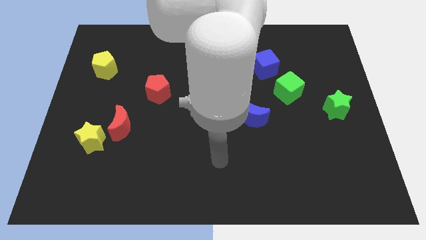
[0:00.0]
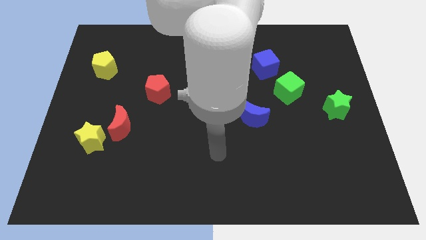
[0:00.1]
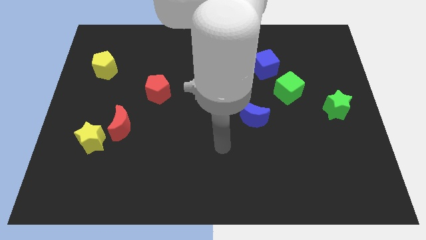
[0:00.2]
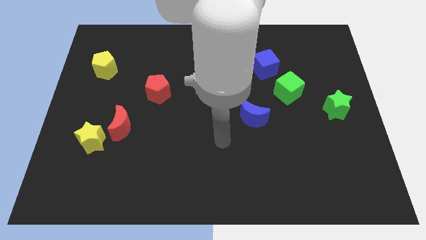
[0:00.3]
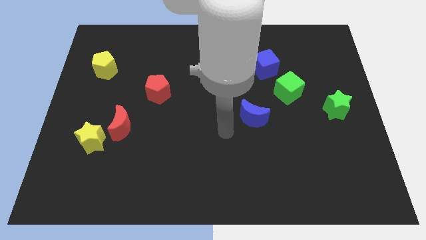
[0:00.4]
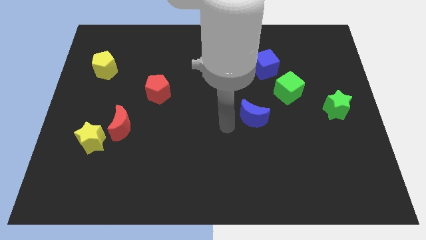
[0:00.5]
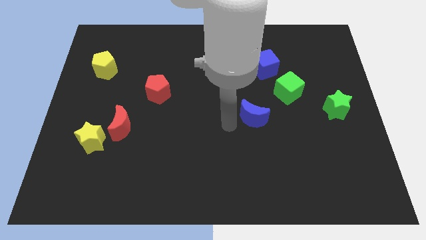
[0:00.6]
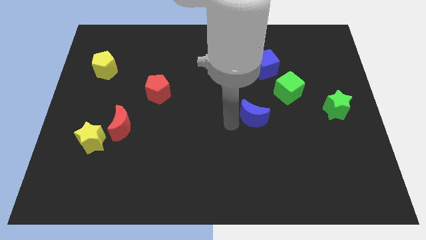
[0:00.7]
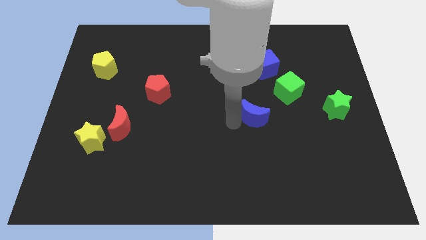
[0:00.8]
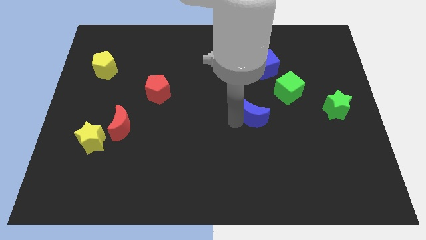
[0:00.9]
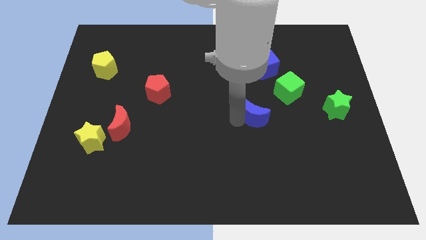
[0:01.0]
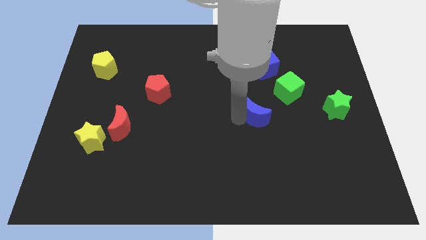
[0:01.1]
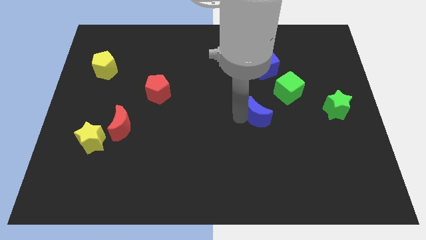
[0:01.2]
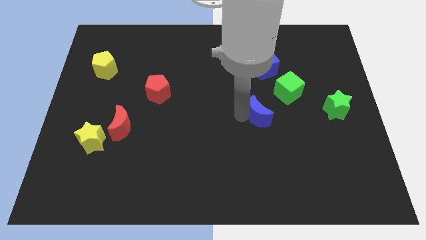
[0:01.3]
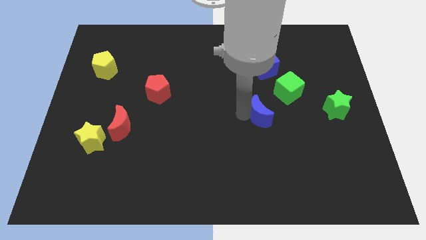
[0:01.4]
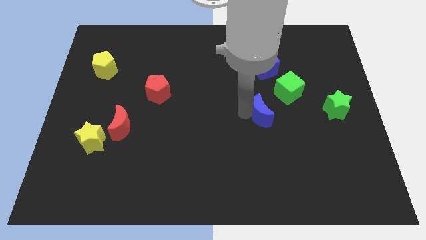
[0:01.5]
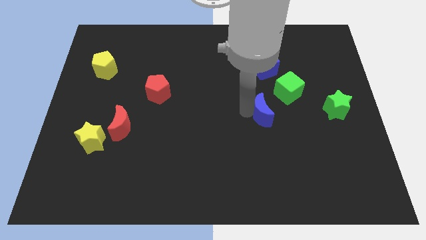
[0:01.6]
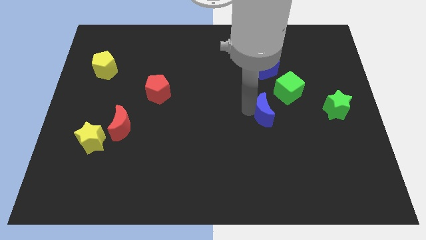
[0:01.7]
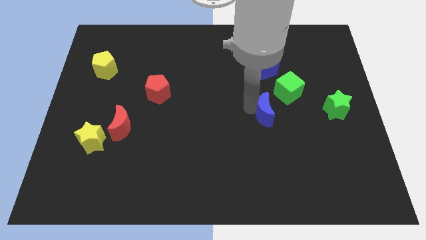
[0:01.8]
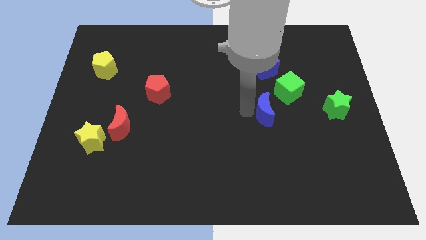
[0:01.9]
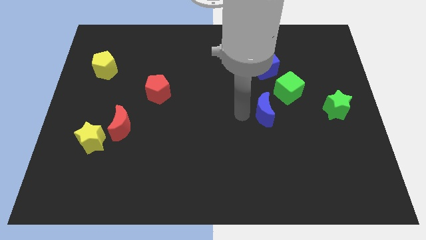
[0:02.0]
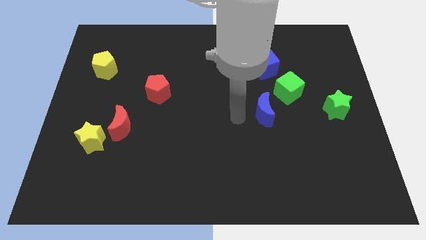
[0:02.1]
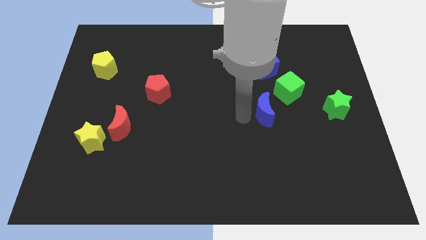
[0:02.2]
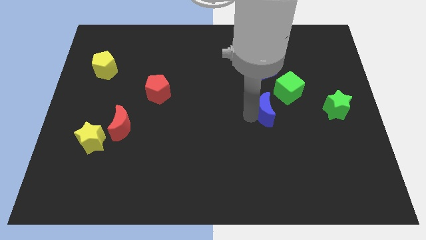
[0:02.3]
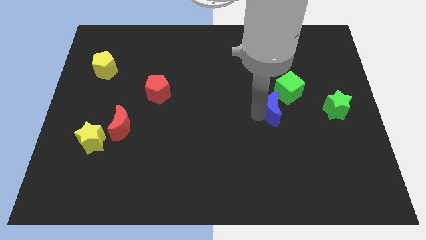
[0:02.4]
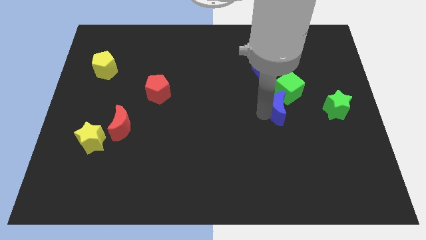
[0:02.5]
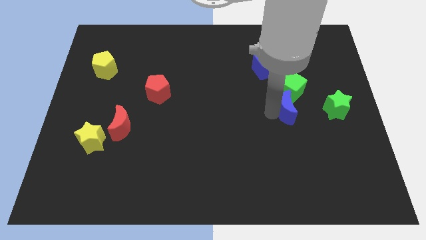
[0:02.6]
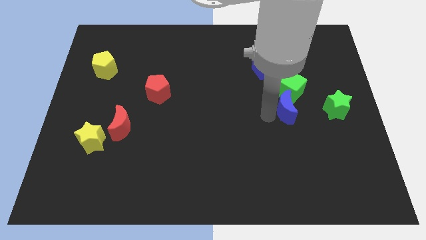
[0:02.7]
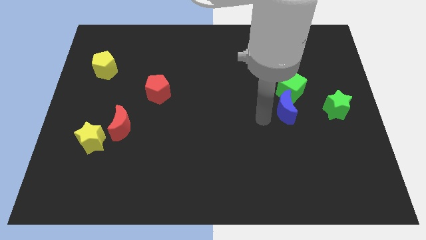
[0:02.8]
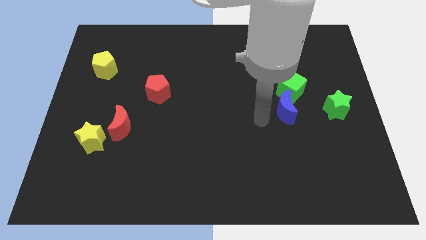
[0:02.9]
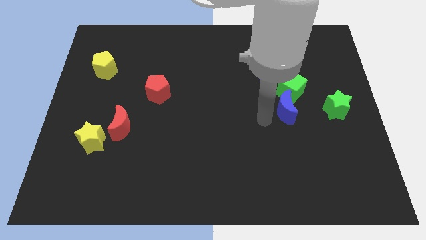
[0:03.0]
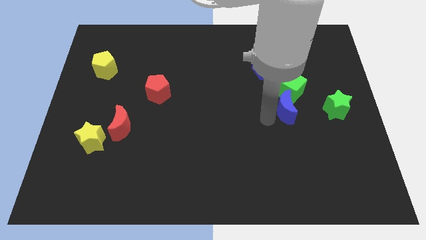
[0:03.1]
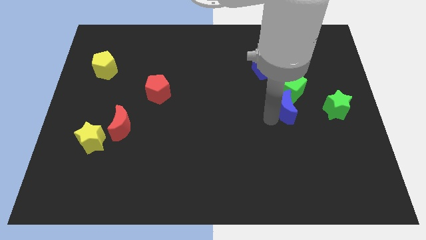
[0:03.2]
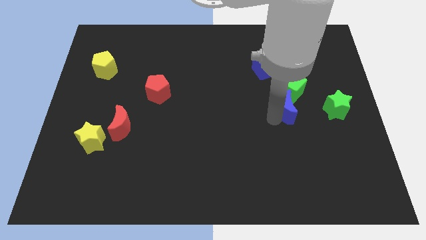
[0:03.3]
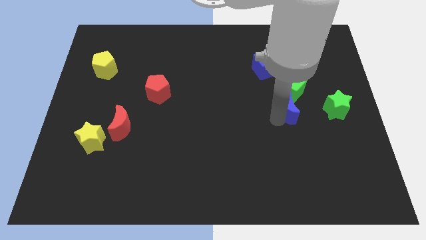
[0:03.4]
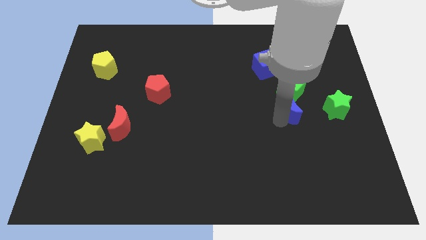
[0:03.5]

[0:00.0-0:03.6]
slightly slide the blue moon upwards and right

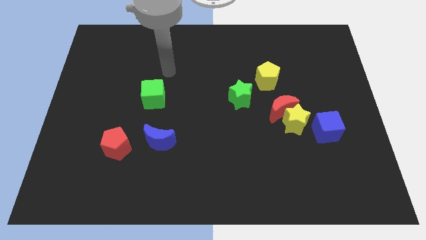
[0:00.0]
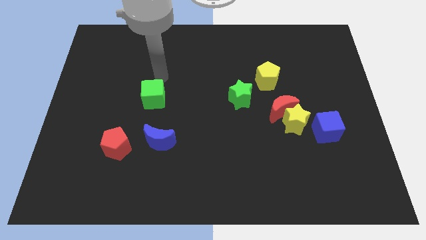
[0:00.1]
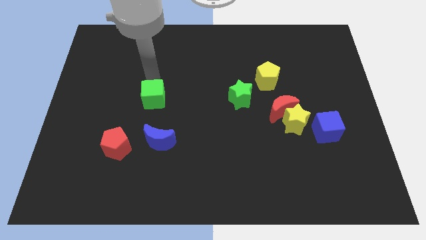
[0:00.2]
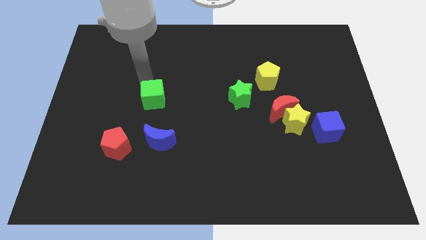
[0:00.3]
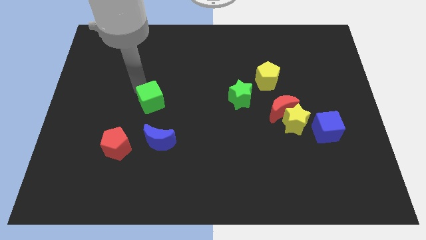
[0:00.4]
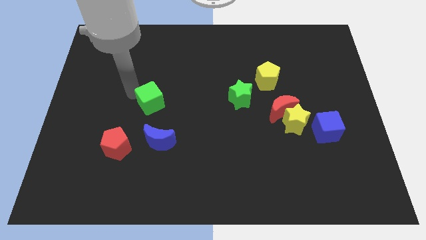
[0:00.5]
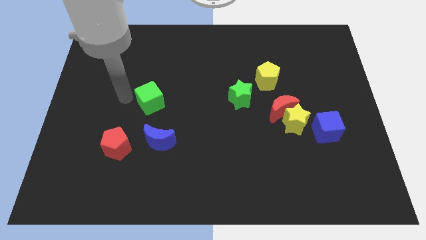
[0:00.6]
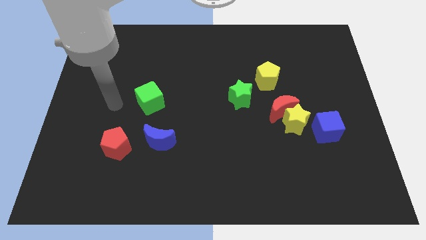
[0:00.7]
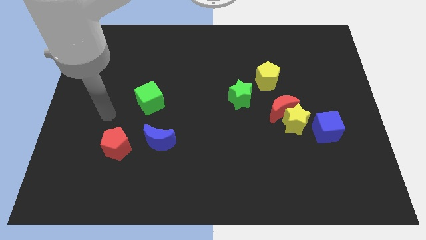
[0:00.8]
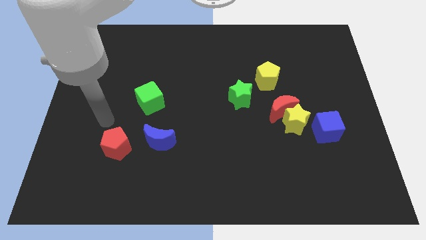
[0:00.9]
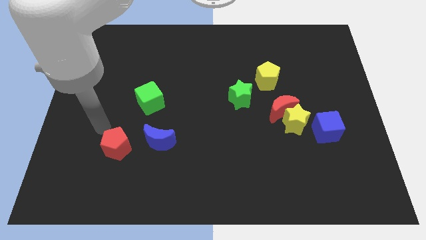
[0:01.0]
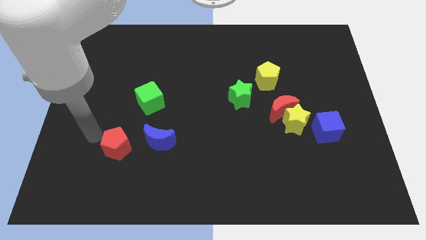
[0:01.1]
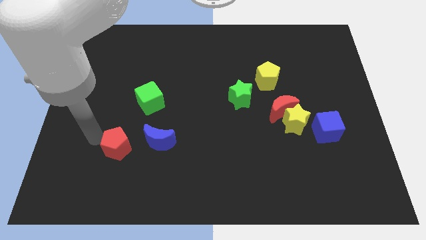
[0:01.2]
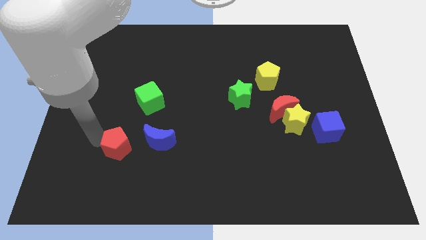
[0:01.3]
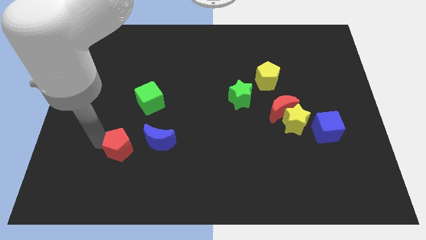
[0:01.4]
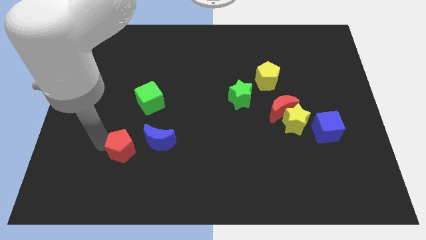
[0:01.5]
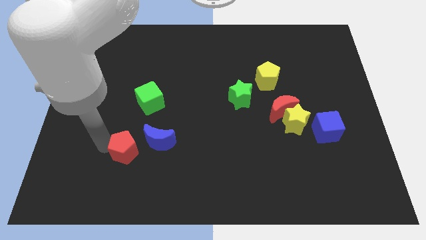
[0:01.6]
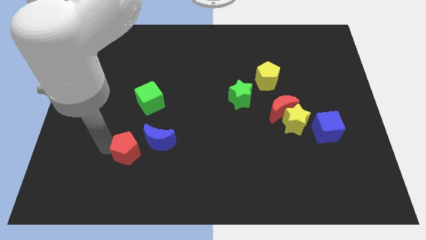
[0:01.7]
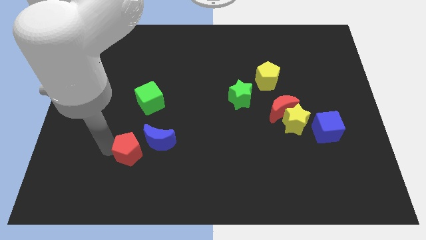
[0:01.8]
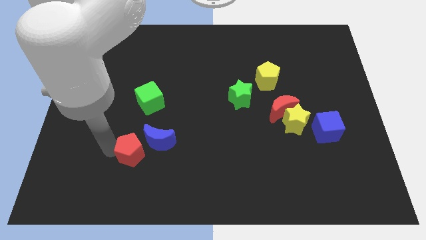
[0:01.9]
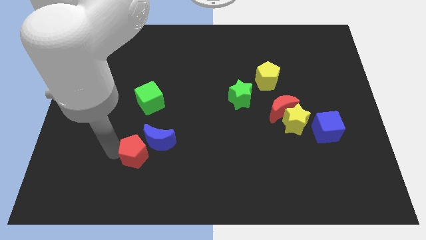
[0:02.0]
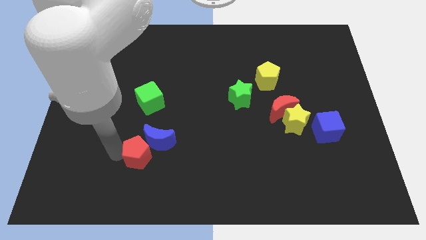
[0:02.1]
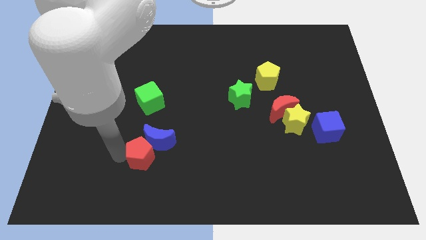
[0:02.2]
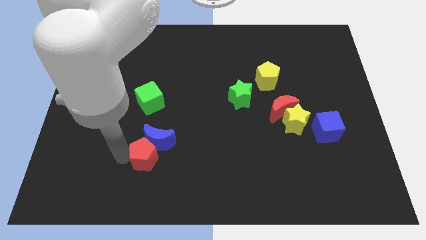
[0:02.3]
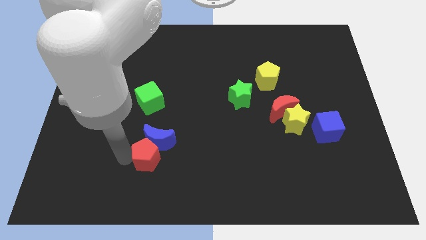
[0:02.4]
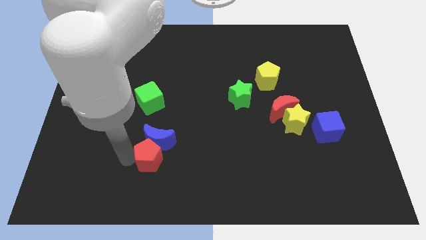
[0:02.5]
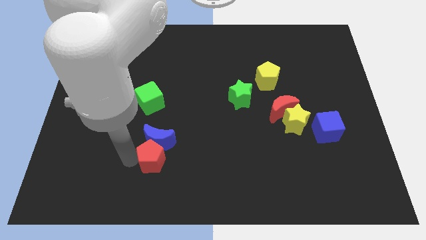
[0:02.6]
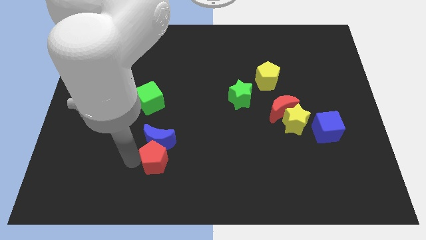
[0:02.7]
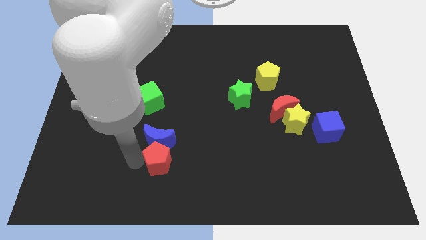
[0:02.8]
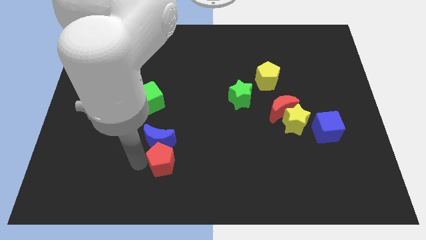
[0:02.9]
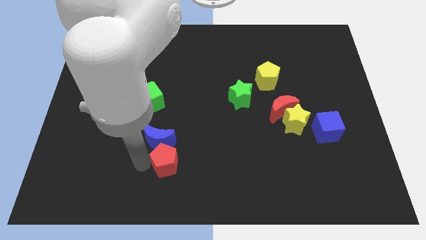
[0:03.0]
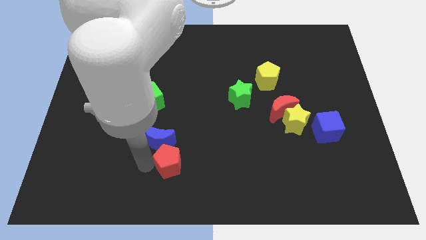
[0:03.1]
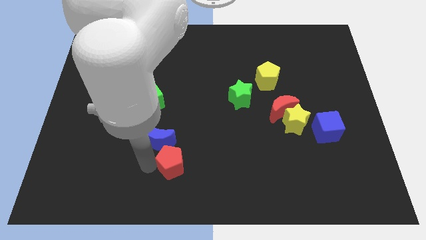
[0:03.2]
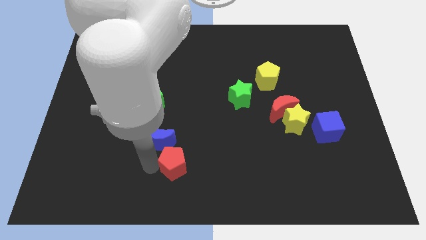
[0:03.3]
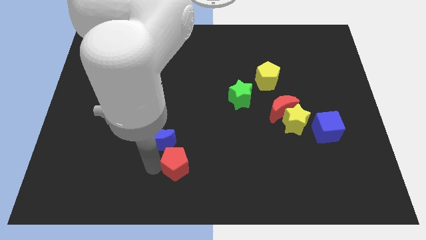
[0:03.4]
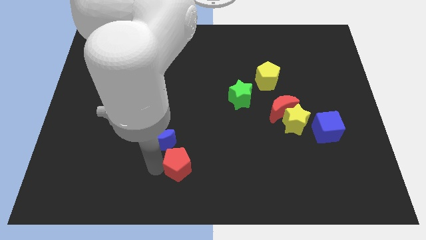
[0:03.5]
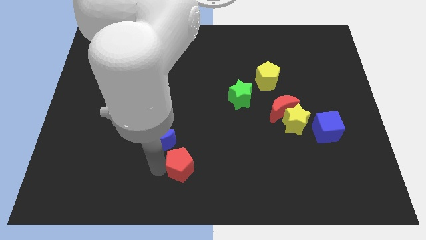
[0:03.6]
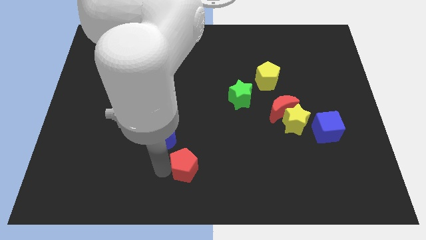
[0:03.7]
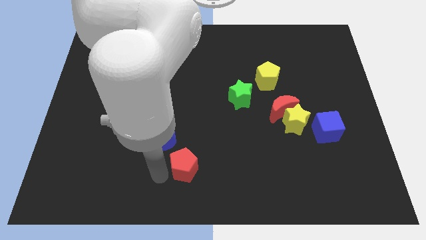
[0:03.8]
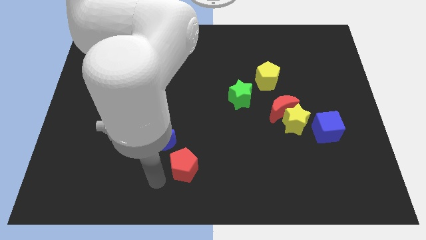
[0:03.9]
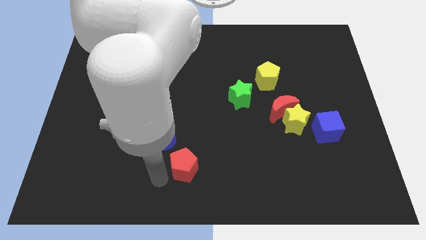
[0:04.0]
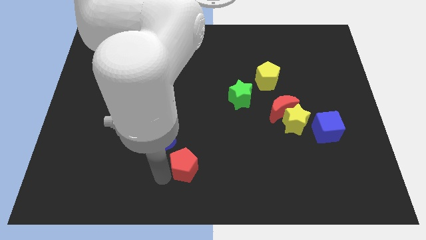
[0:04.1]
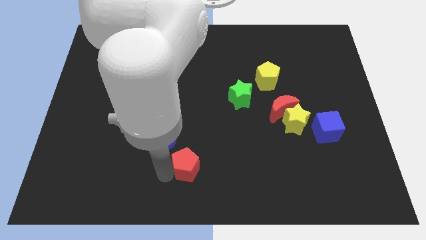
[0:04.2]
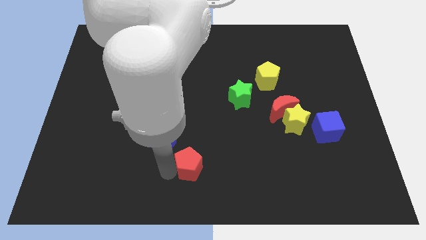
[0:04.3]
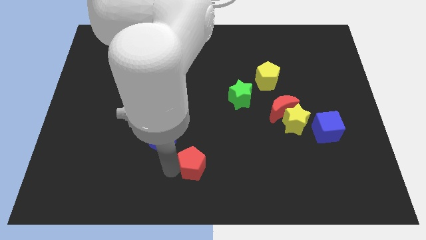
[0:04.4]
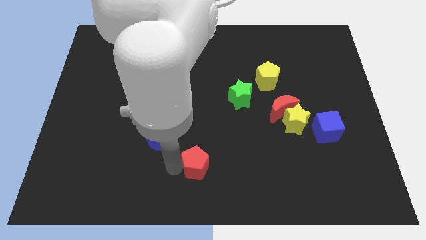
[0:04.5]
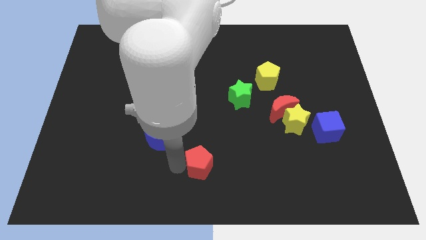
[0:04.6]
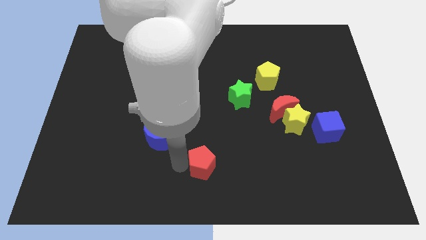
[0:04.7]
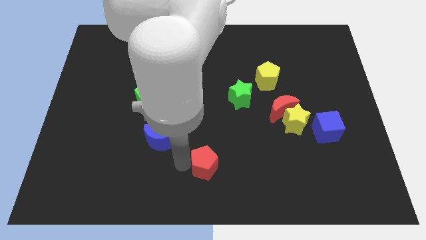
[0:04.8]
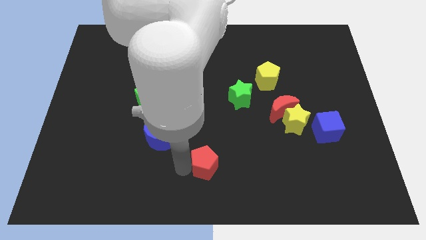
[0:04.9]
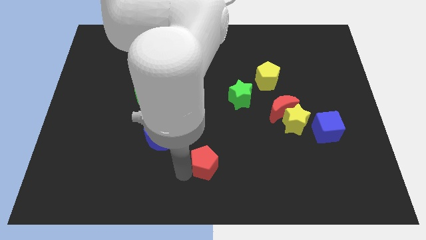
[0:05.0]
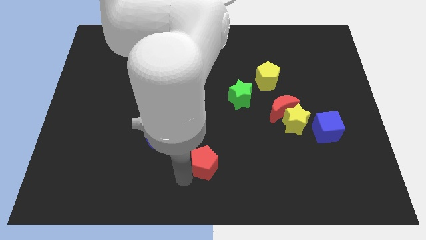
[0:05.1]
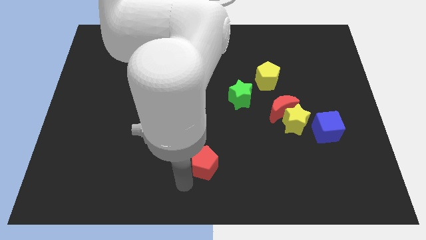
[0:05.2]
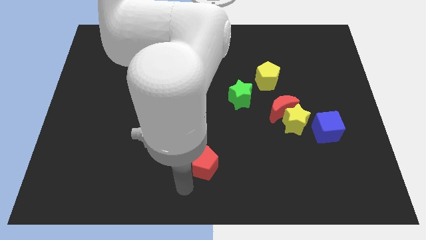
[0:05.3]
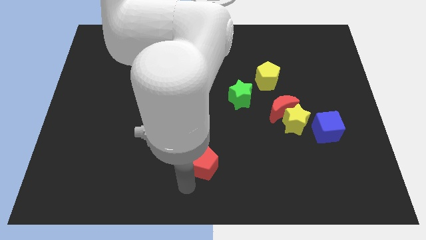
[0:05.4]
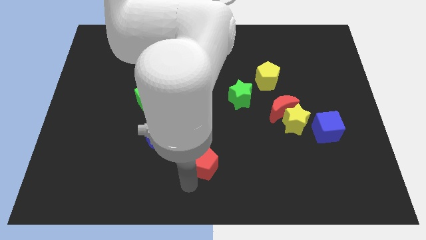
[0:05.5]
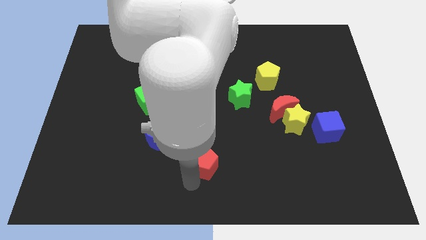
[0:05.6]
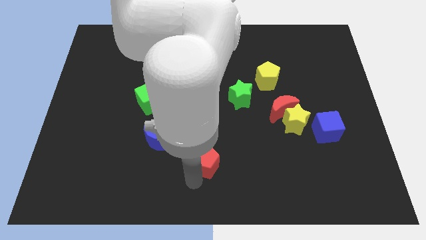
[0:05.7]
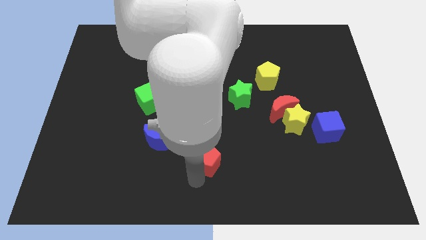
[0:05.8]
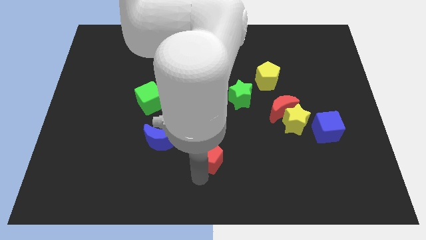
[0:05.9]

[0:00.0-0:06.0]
move the red pentagon right
